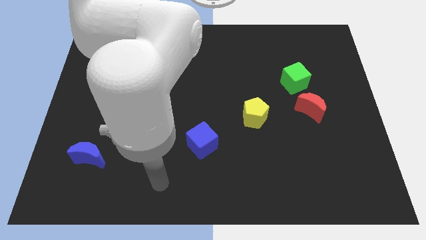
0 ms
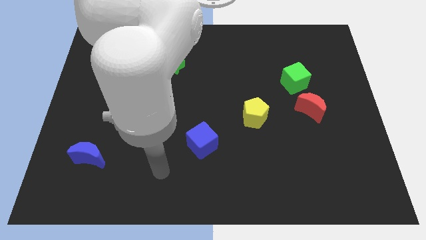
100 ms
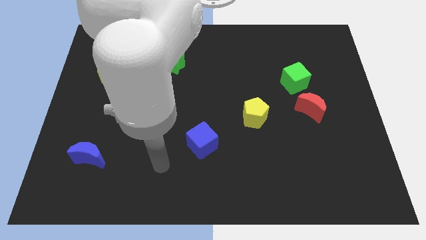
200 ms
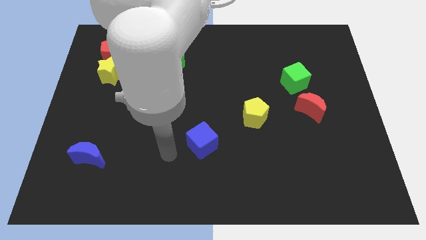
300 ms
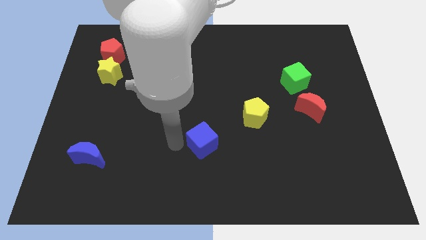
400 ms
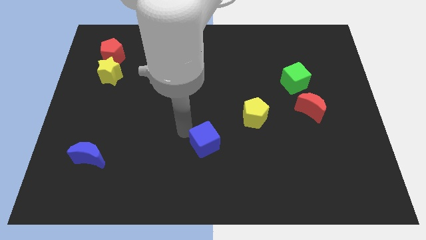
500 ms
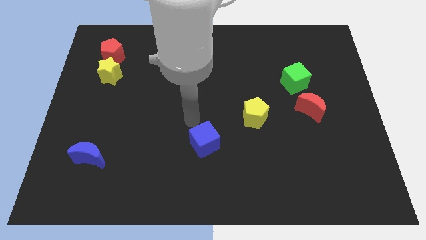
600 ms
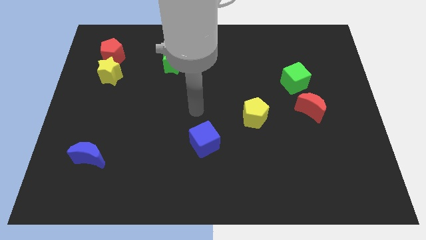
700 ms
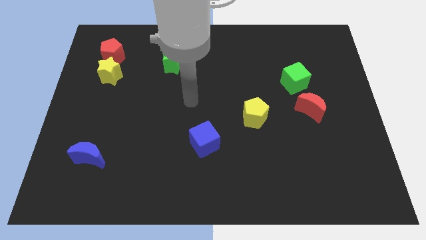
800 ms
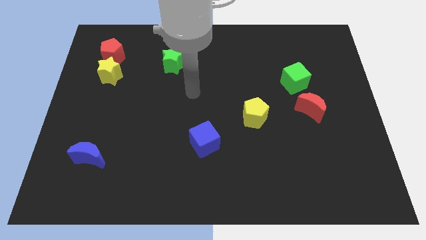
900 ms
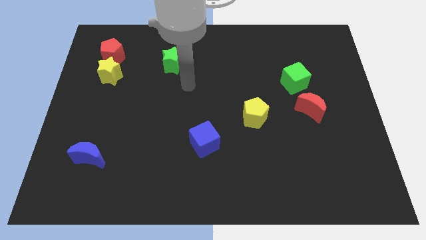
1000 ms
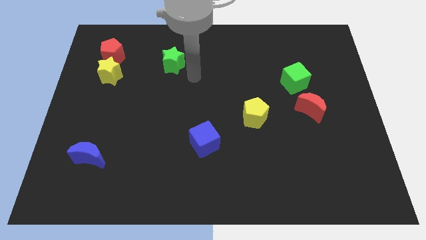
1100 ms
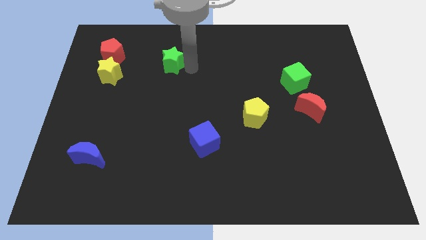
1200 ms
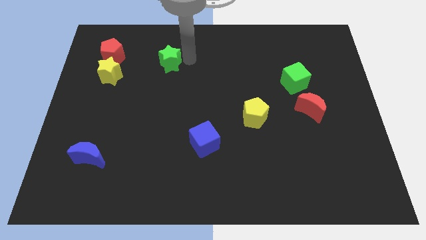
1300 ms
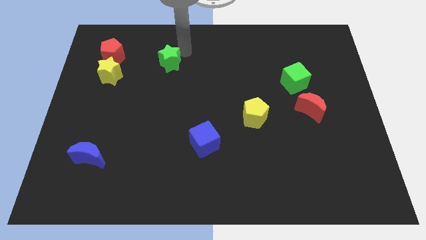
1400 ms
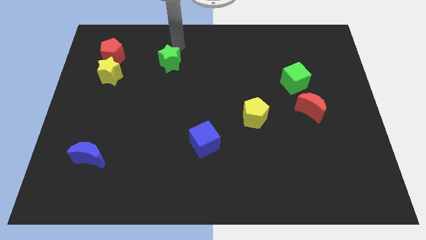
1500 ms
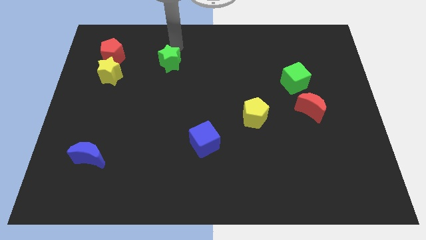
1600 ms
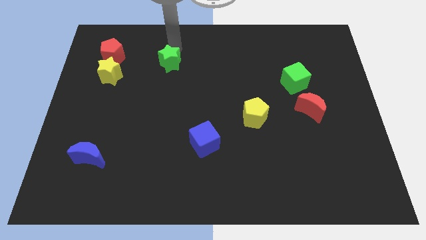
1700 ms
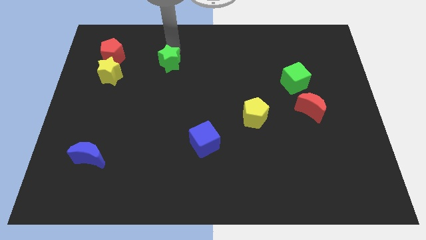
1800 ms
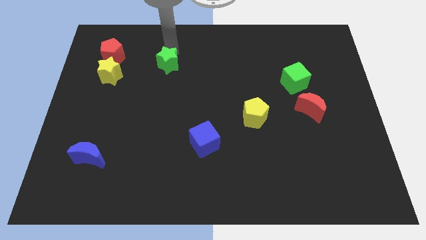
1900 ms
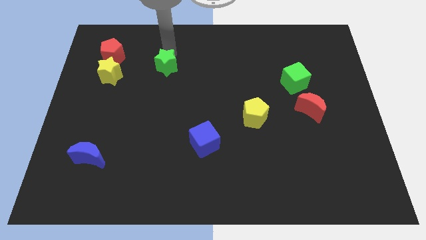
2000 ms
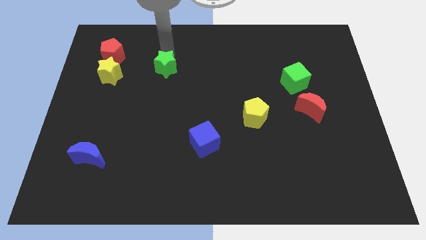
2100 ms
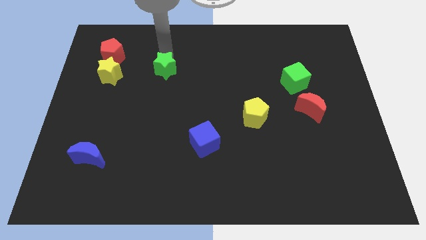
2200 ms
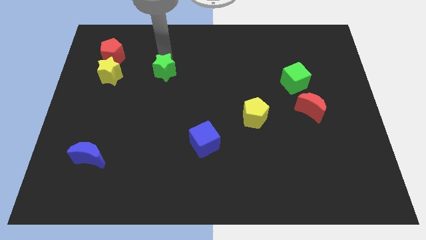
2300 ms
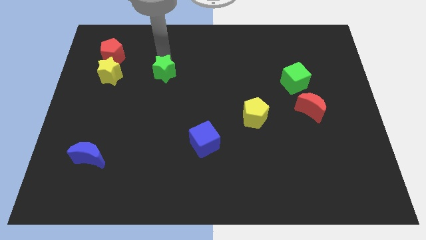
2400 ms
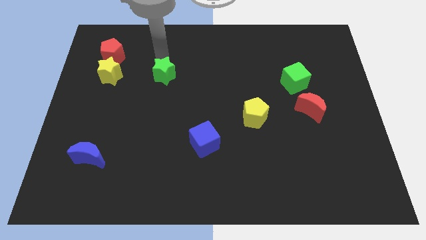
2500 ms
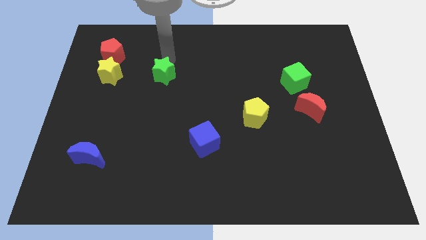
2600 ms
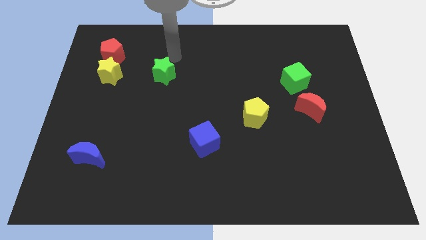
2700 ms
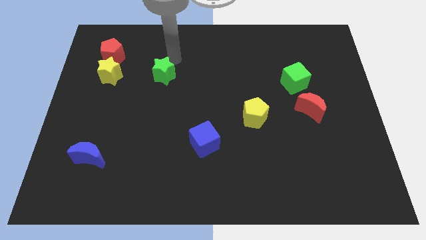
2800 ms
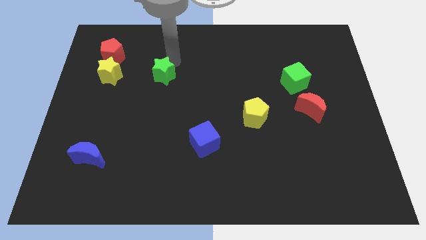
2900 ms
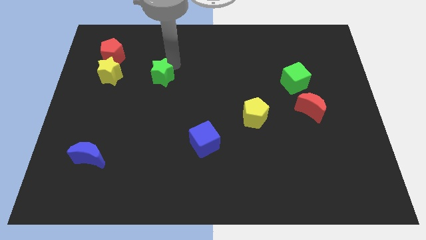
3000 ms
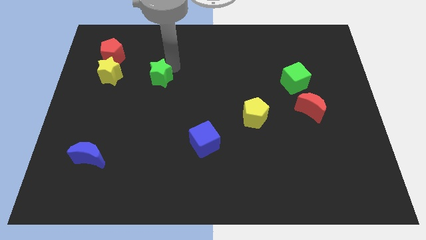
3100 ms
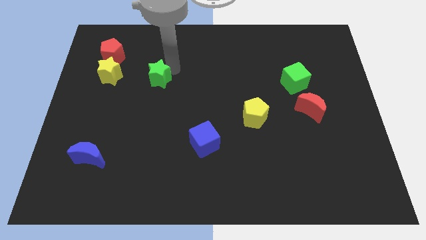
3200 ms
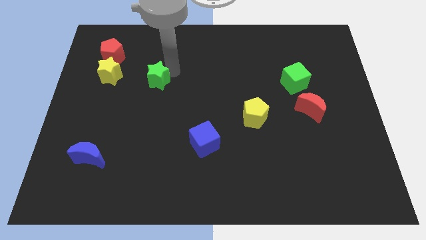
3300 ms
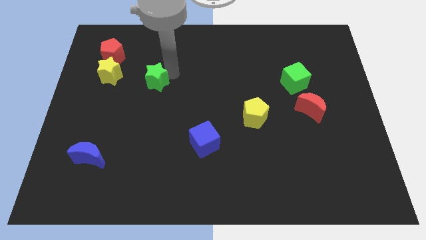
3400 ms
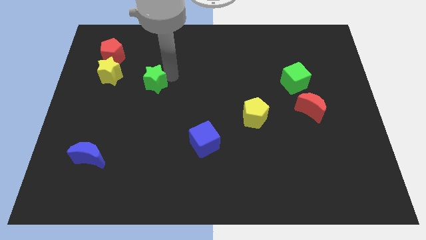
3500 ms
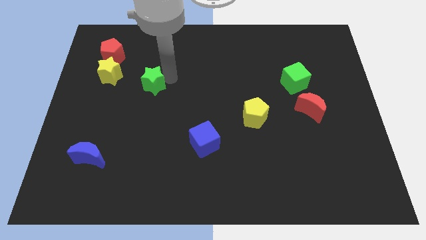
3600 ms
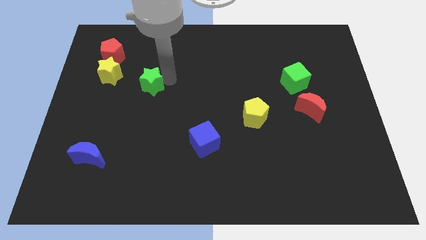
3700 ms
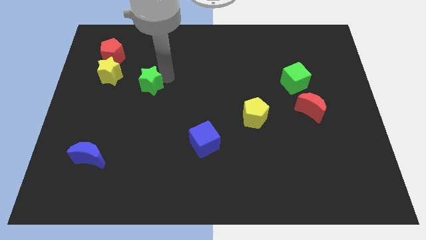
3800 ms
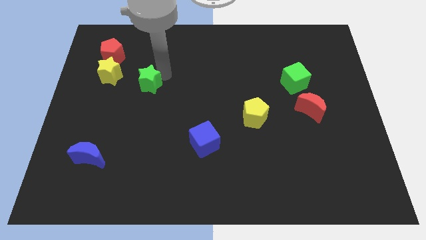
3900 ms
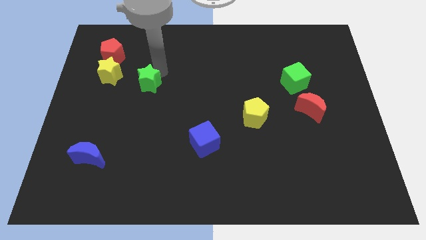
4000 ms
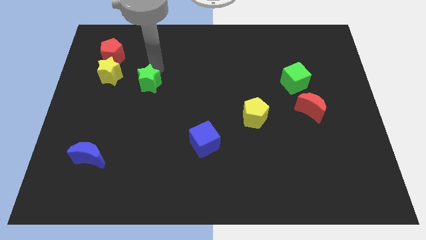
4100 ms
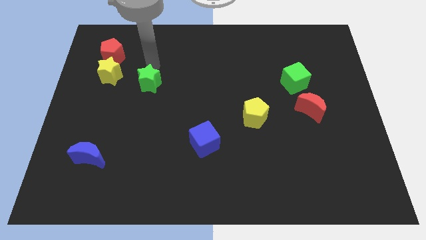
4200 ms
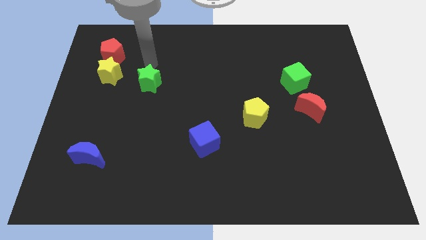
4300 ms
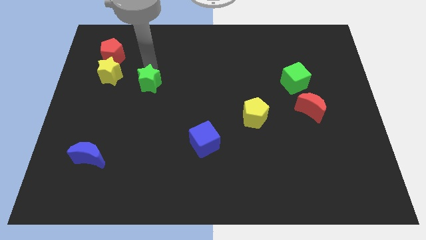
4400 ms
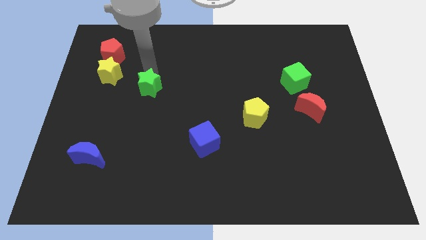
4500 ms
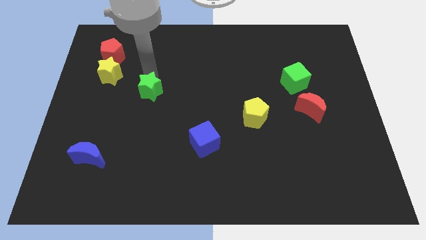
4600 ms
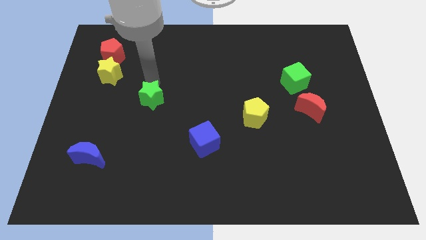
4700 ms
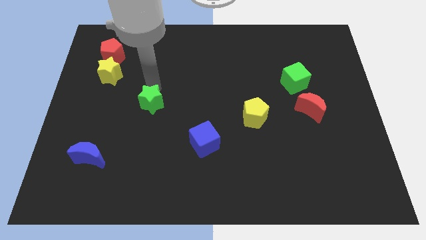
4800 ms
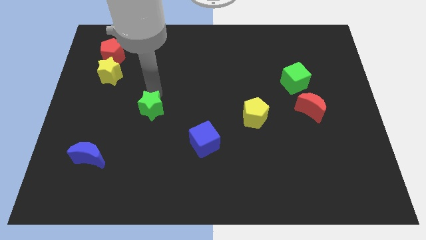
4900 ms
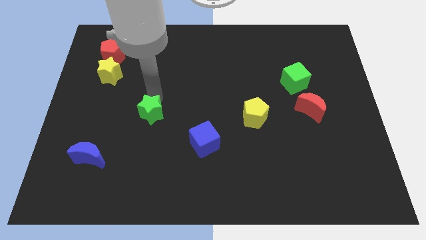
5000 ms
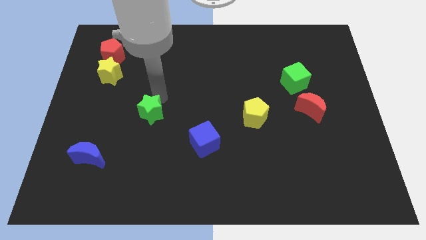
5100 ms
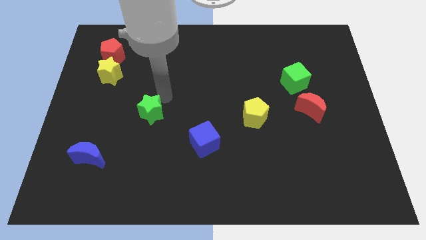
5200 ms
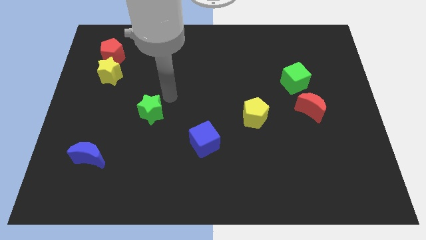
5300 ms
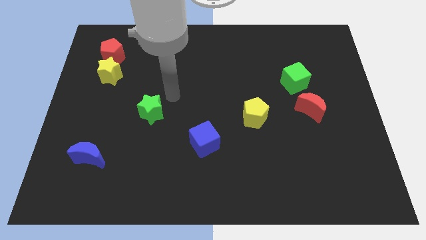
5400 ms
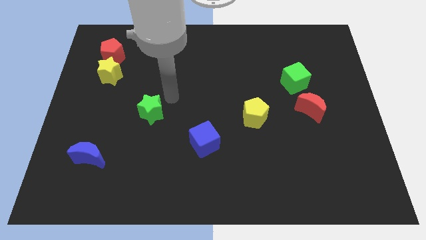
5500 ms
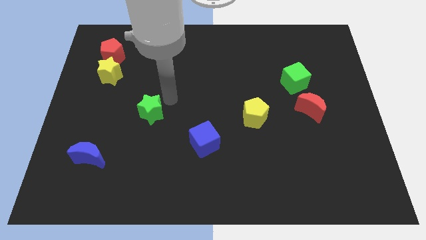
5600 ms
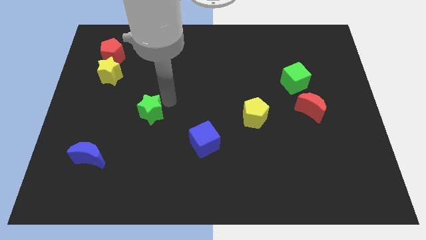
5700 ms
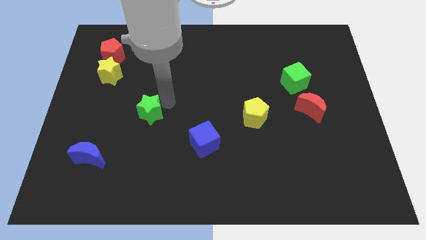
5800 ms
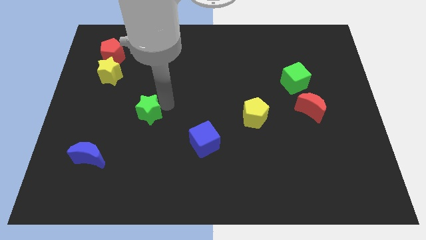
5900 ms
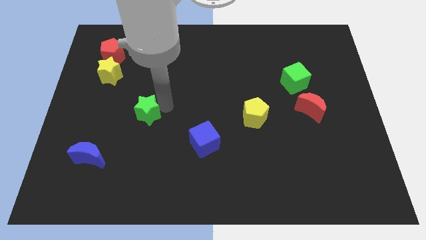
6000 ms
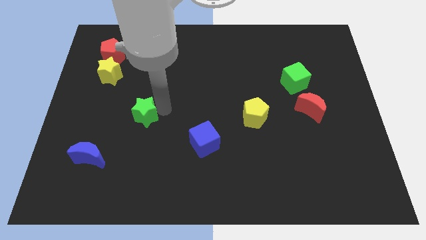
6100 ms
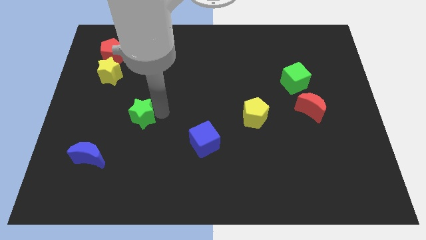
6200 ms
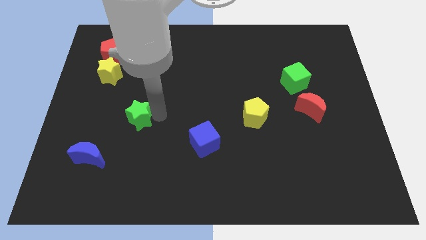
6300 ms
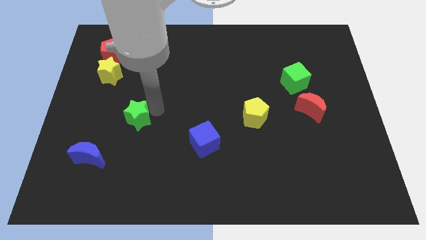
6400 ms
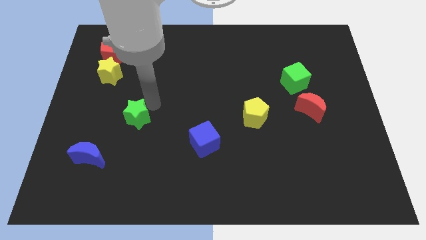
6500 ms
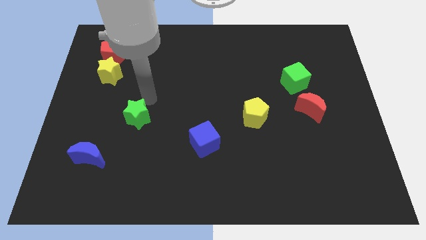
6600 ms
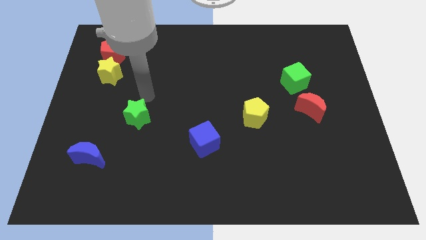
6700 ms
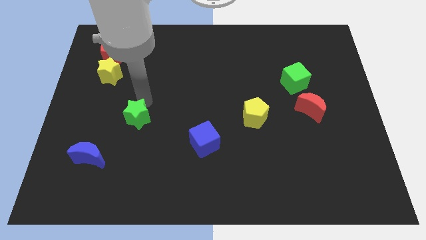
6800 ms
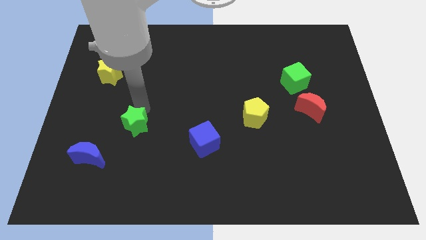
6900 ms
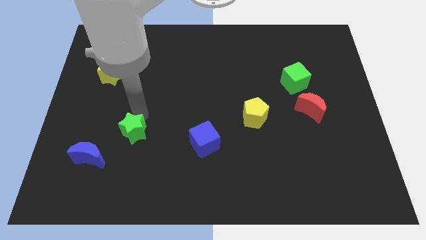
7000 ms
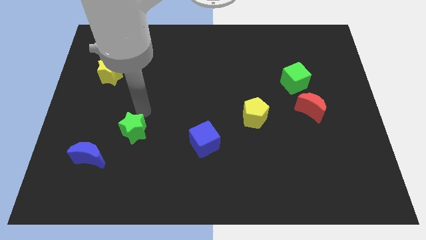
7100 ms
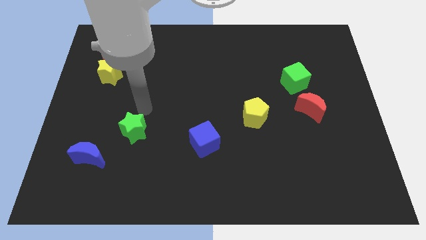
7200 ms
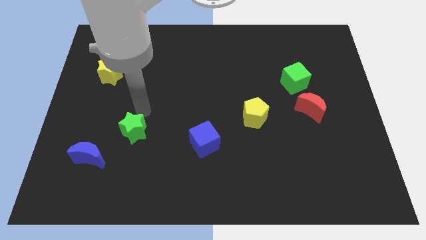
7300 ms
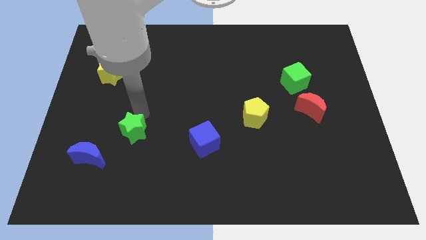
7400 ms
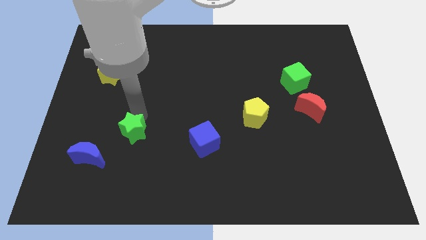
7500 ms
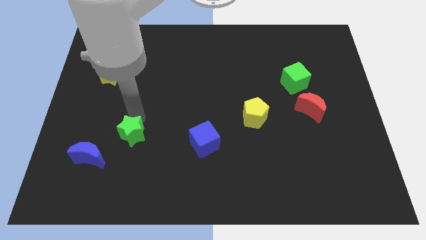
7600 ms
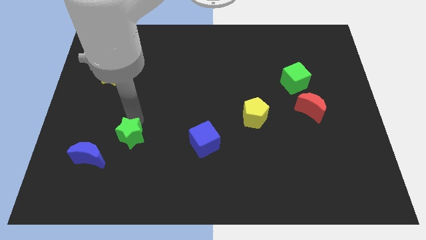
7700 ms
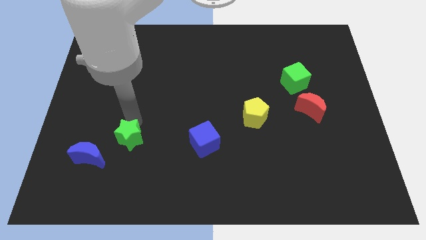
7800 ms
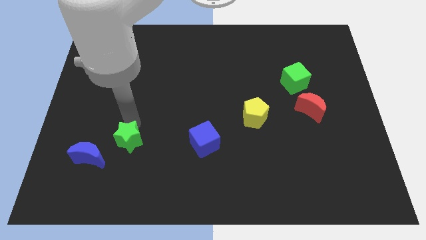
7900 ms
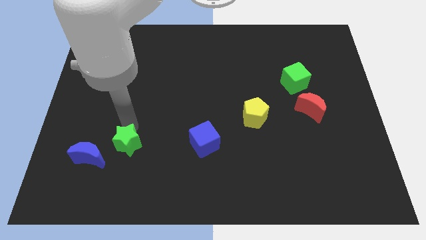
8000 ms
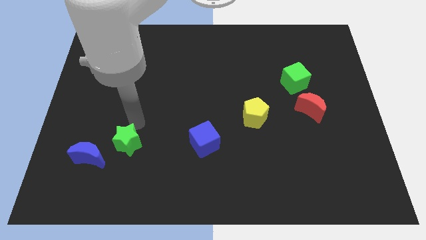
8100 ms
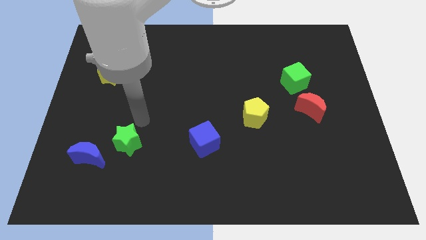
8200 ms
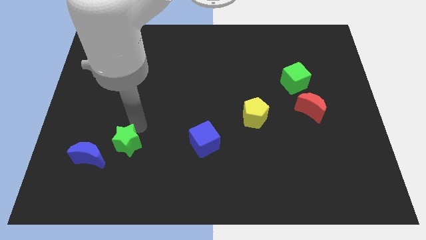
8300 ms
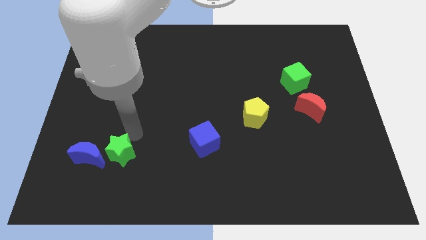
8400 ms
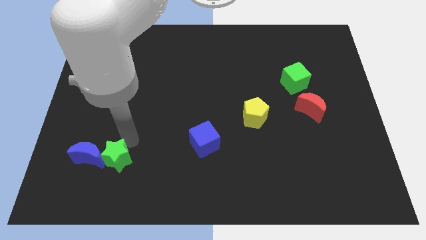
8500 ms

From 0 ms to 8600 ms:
put the green star diagonally down and to the right of the blue moon
